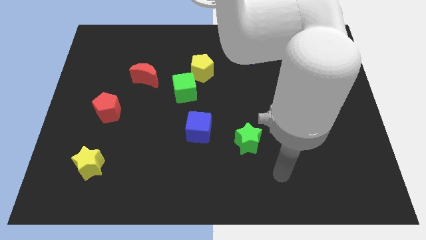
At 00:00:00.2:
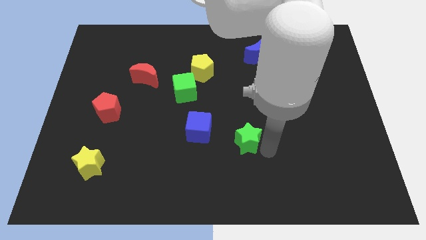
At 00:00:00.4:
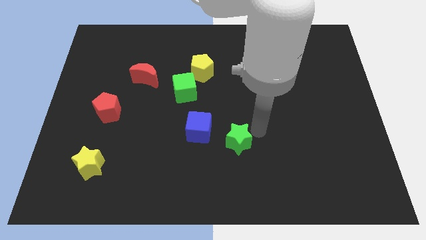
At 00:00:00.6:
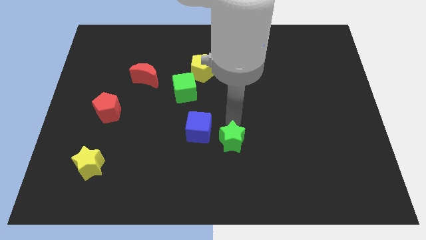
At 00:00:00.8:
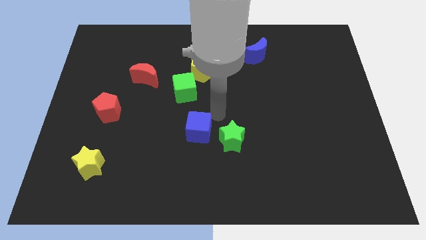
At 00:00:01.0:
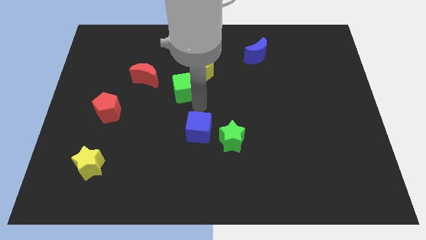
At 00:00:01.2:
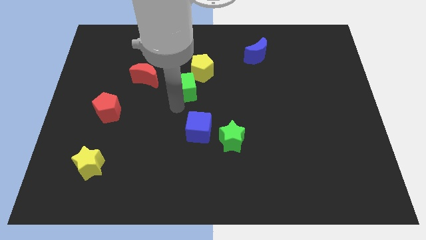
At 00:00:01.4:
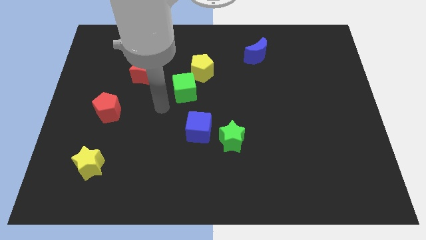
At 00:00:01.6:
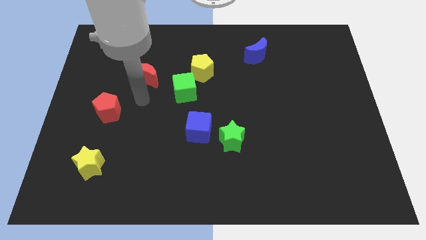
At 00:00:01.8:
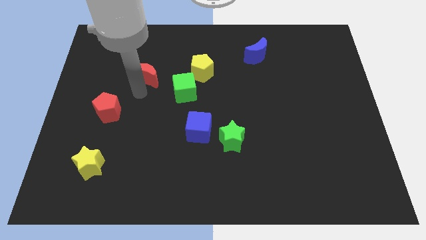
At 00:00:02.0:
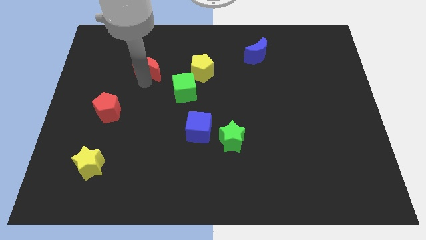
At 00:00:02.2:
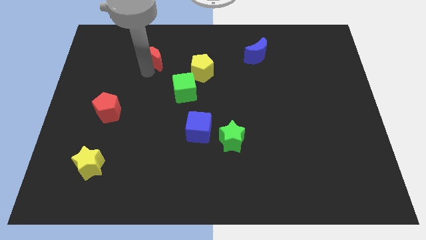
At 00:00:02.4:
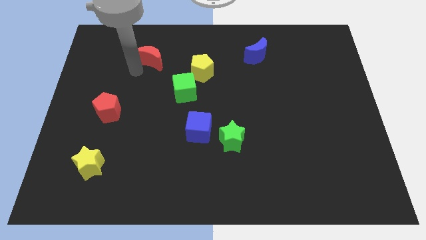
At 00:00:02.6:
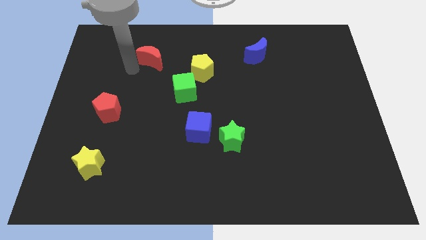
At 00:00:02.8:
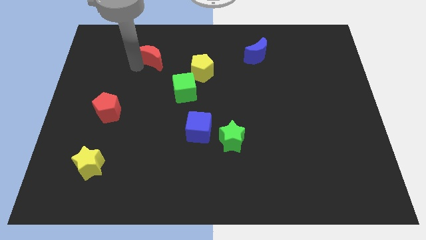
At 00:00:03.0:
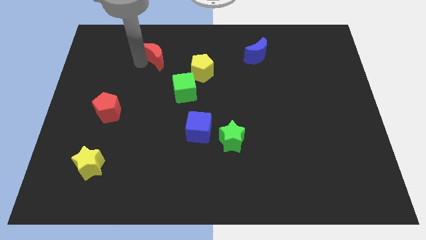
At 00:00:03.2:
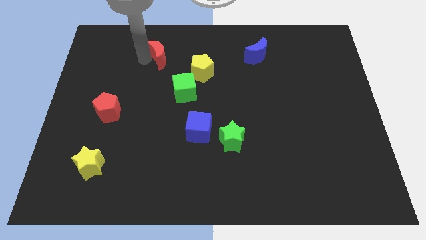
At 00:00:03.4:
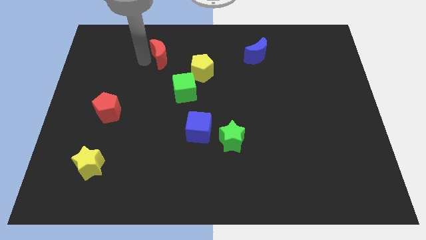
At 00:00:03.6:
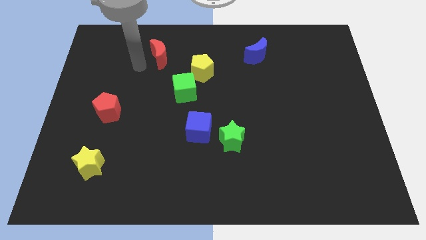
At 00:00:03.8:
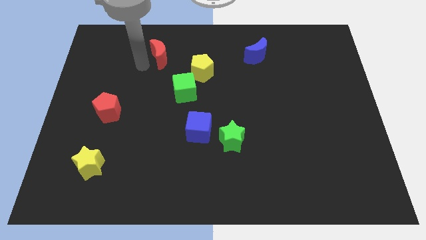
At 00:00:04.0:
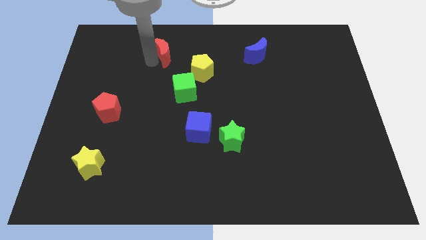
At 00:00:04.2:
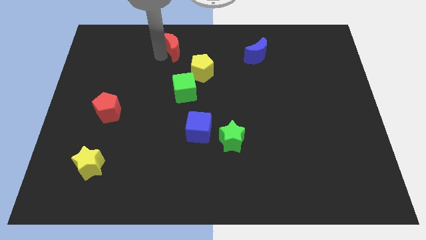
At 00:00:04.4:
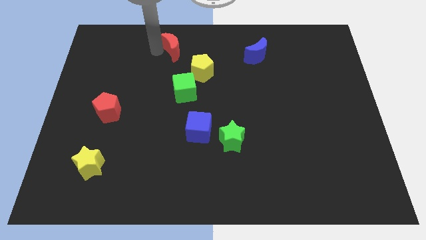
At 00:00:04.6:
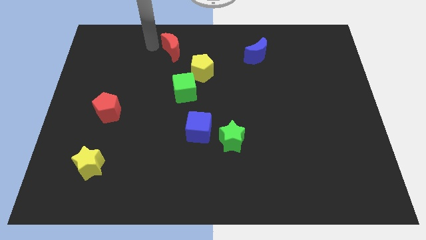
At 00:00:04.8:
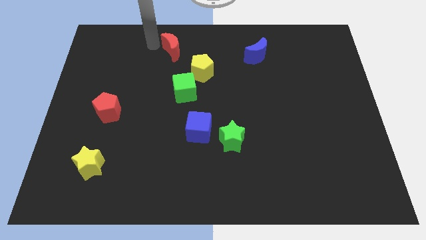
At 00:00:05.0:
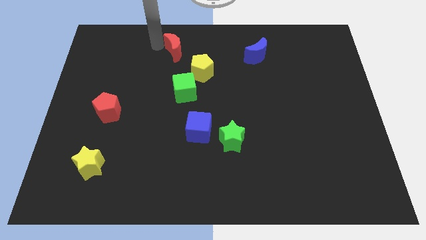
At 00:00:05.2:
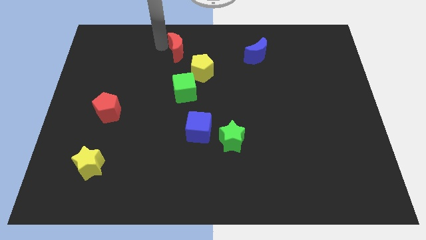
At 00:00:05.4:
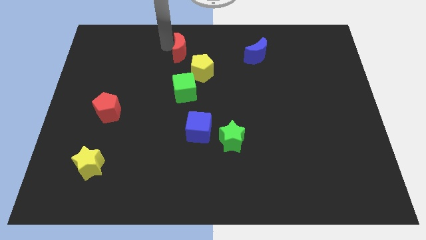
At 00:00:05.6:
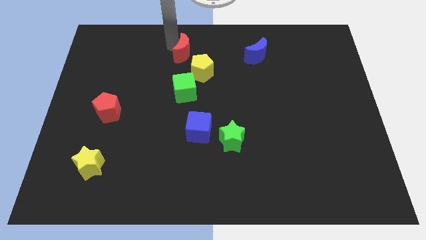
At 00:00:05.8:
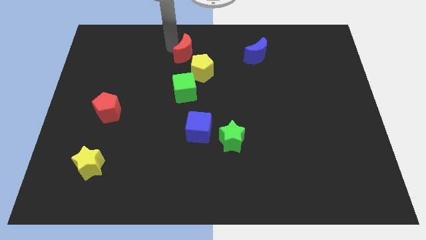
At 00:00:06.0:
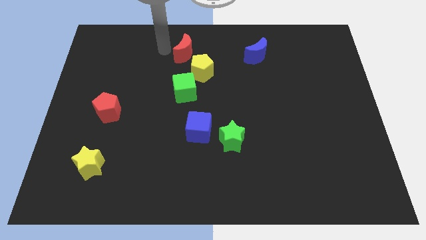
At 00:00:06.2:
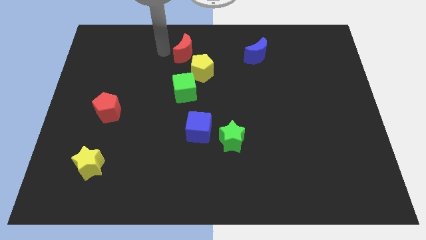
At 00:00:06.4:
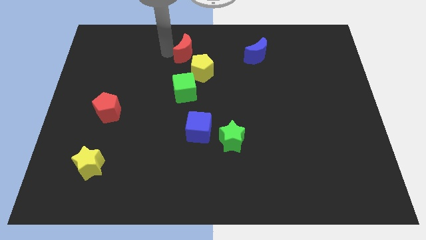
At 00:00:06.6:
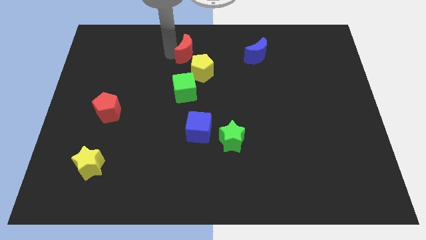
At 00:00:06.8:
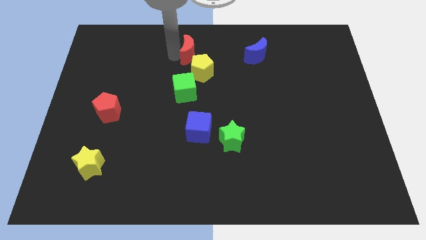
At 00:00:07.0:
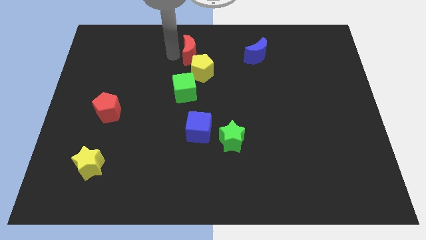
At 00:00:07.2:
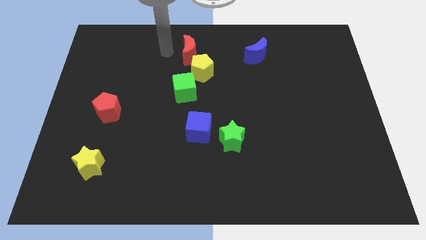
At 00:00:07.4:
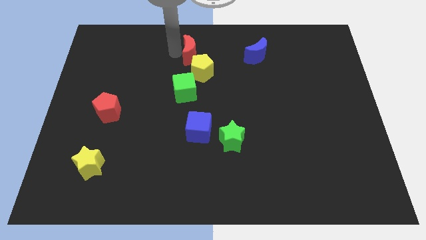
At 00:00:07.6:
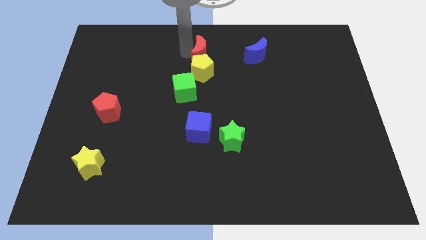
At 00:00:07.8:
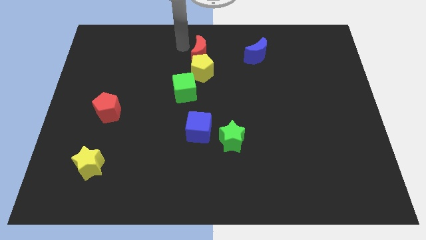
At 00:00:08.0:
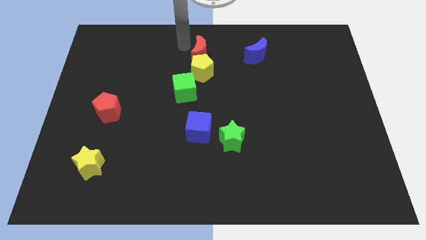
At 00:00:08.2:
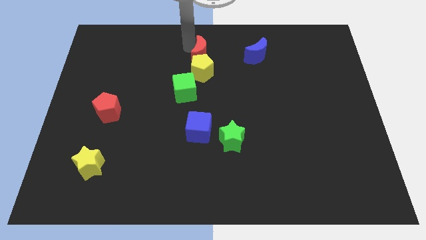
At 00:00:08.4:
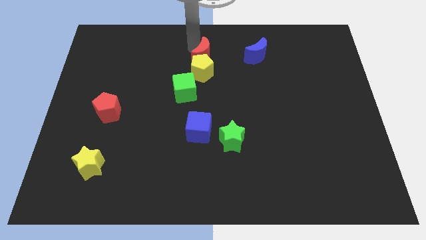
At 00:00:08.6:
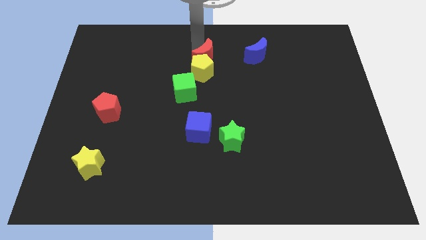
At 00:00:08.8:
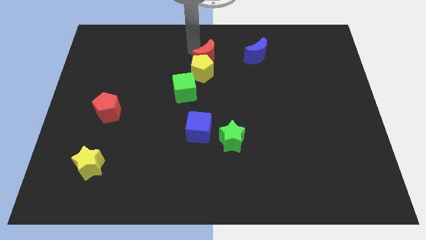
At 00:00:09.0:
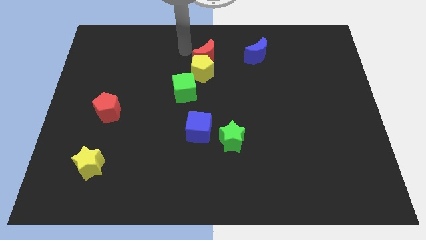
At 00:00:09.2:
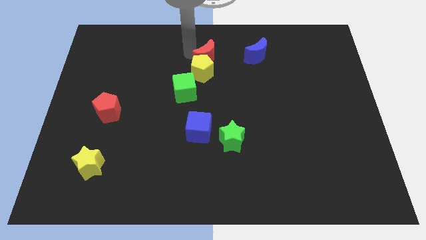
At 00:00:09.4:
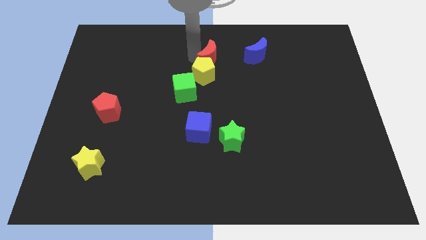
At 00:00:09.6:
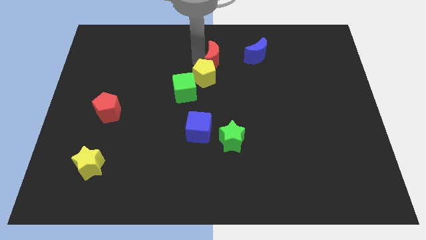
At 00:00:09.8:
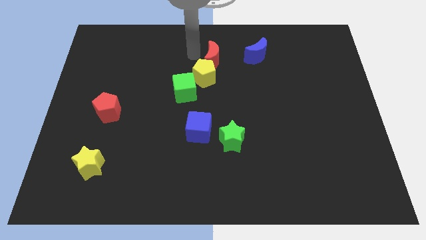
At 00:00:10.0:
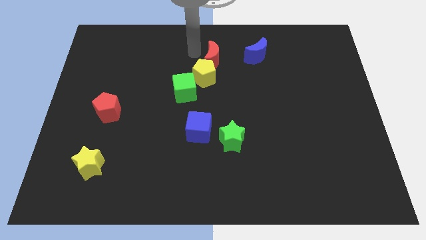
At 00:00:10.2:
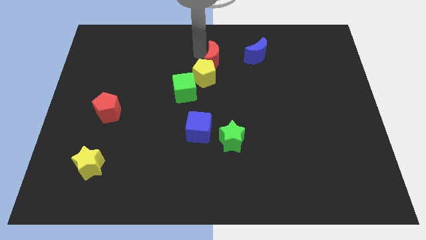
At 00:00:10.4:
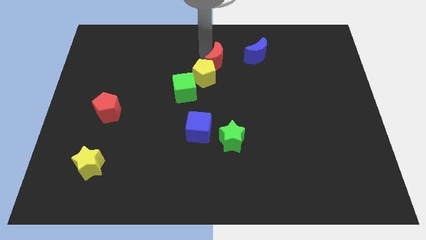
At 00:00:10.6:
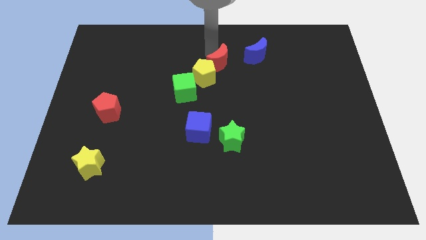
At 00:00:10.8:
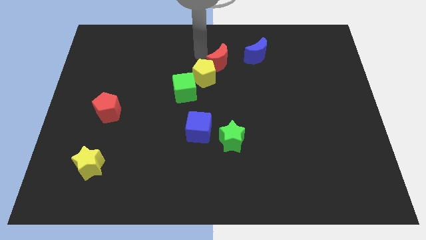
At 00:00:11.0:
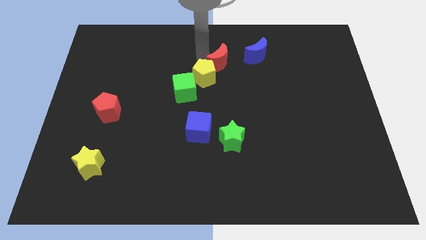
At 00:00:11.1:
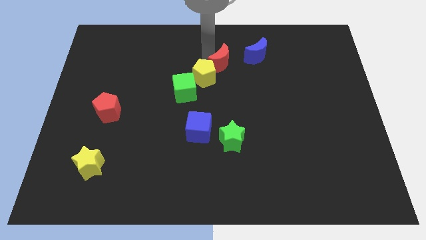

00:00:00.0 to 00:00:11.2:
push the red moon to the bottom left of the blue moon

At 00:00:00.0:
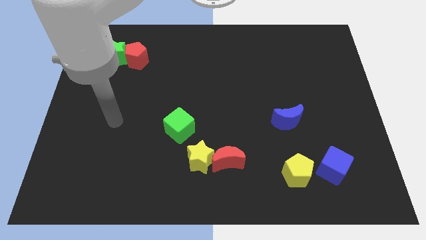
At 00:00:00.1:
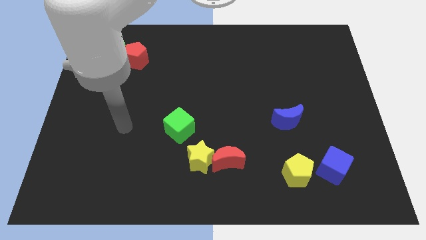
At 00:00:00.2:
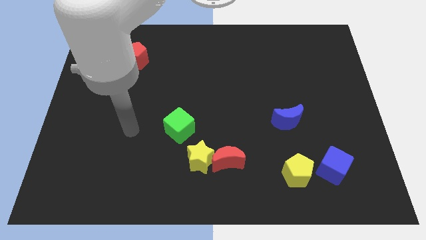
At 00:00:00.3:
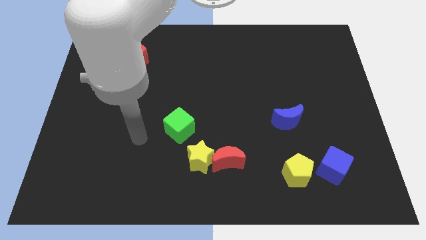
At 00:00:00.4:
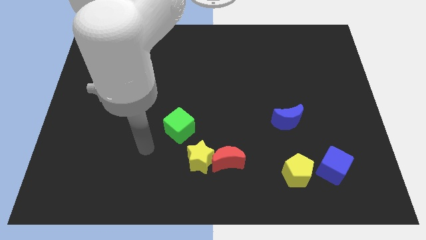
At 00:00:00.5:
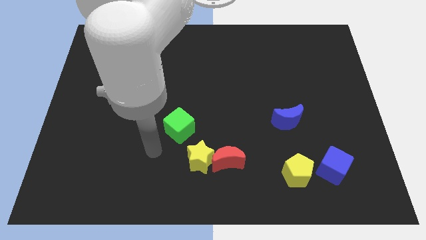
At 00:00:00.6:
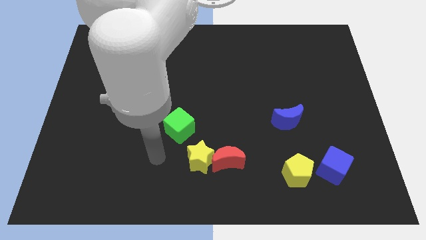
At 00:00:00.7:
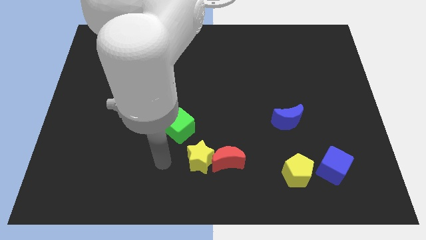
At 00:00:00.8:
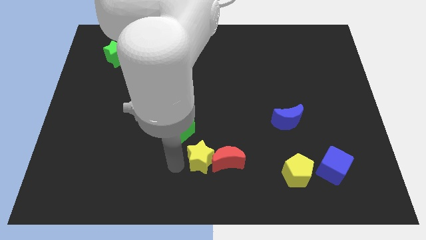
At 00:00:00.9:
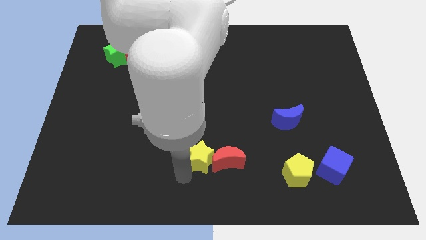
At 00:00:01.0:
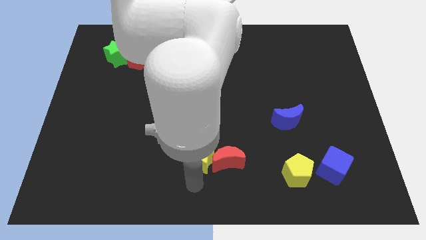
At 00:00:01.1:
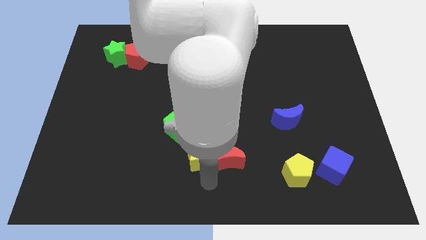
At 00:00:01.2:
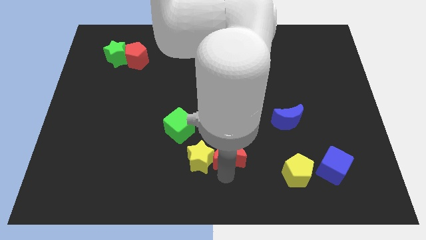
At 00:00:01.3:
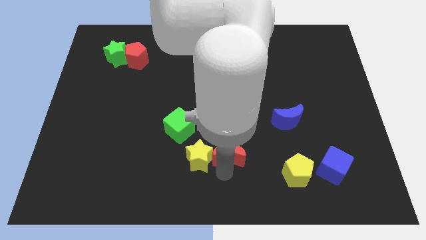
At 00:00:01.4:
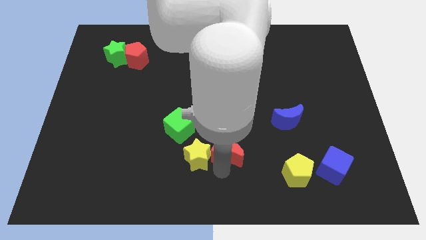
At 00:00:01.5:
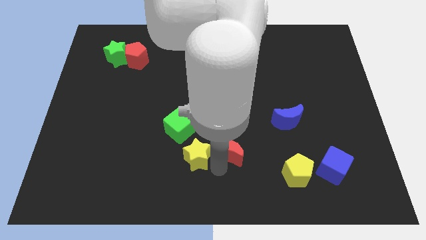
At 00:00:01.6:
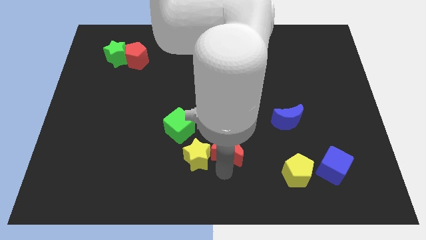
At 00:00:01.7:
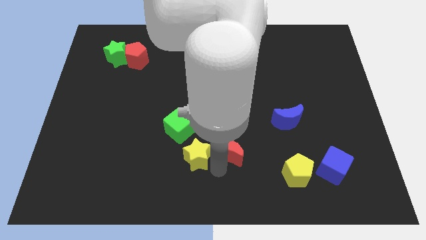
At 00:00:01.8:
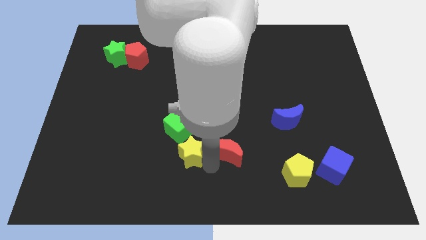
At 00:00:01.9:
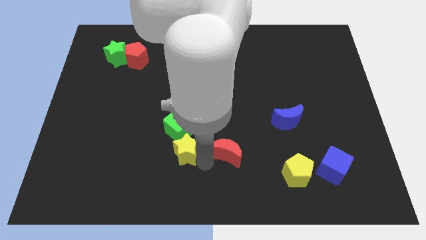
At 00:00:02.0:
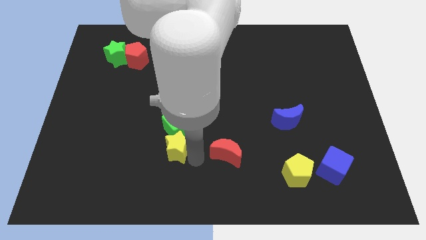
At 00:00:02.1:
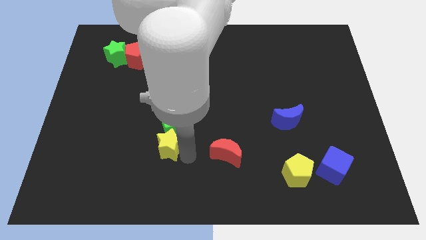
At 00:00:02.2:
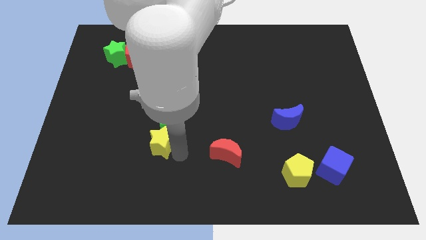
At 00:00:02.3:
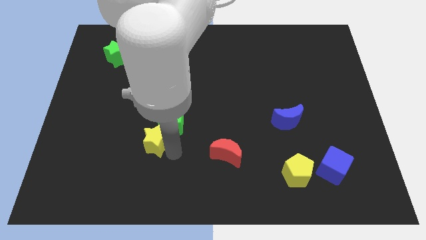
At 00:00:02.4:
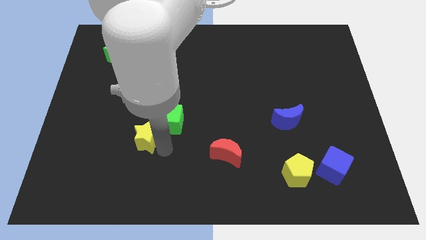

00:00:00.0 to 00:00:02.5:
push the yellow star to the left side of the green cube
